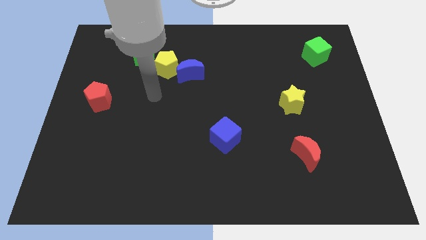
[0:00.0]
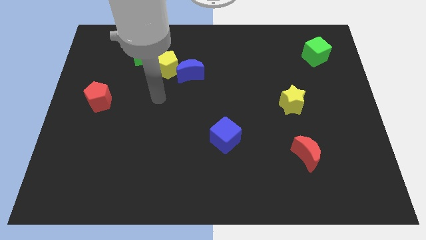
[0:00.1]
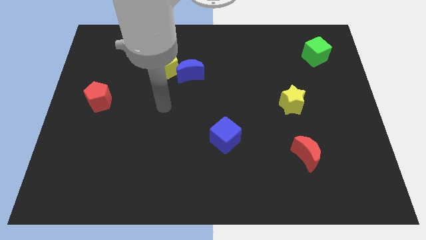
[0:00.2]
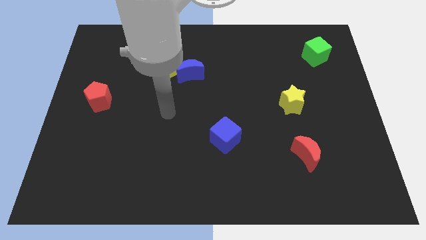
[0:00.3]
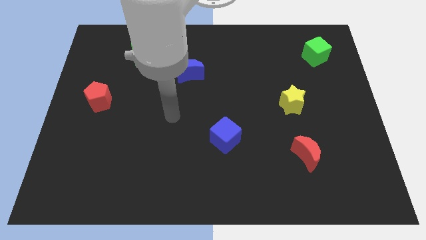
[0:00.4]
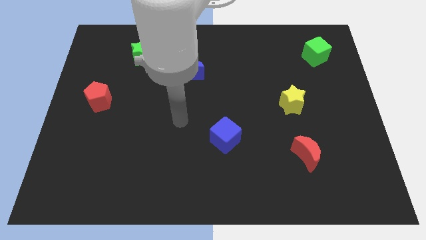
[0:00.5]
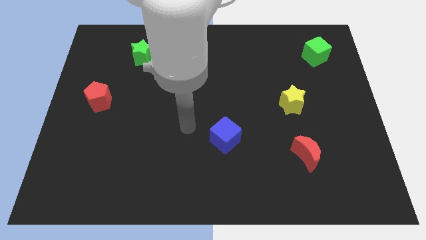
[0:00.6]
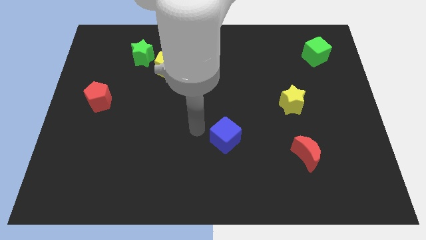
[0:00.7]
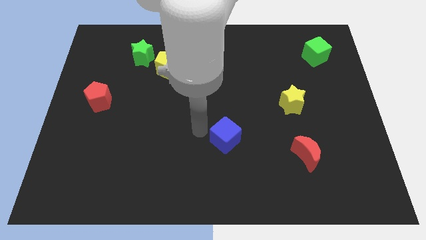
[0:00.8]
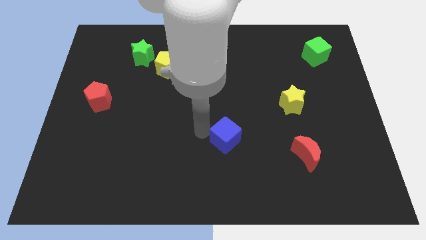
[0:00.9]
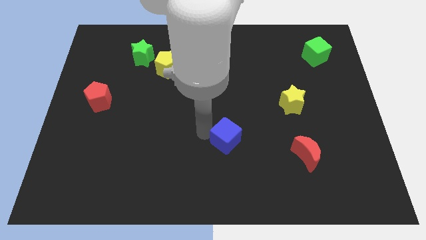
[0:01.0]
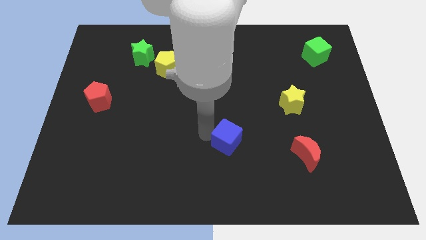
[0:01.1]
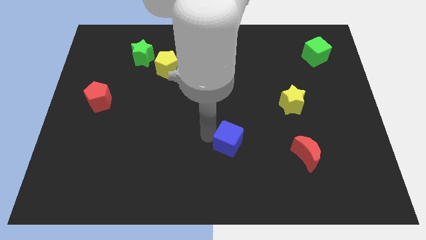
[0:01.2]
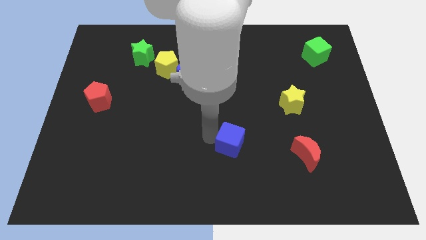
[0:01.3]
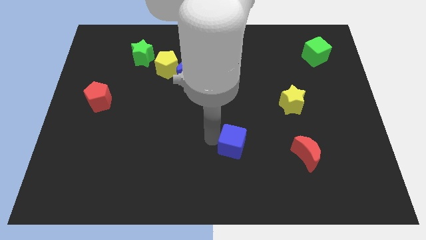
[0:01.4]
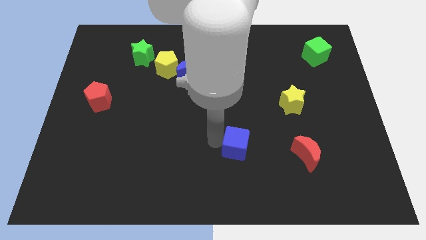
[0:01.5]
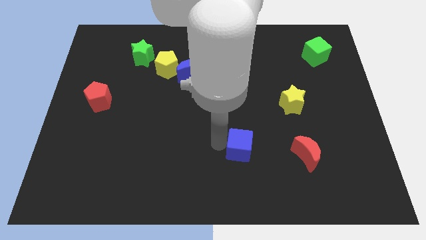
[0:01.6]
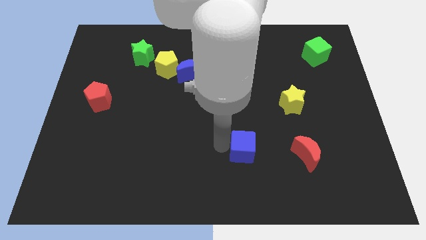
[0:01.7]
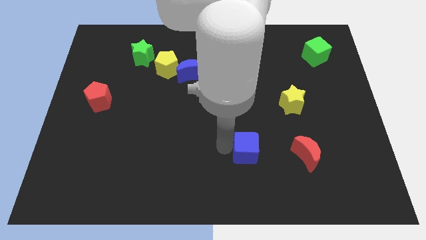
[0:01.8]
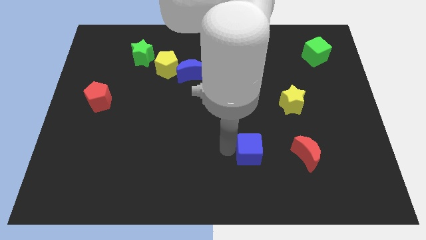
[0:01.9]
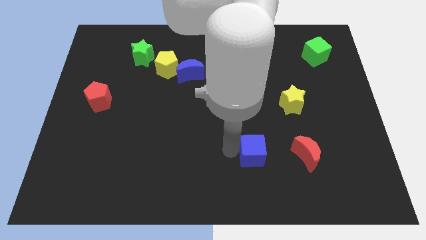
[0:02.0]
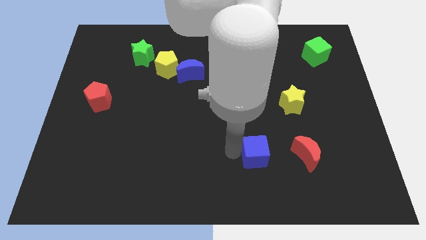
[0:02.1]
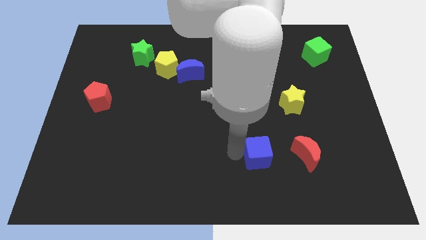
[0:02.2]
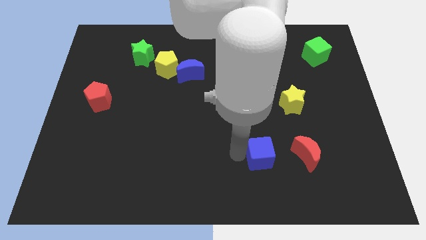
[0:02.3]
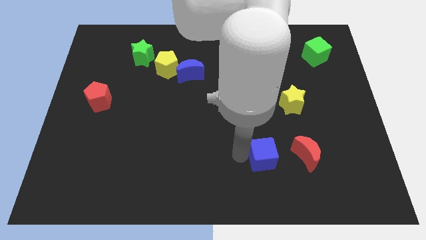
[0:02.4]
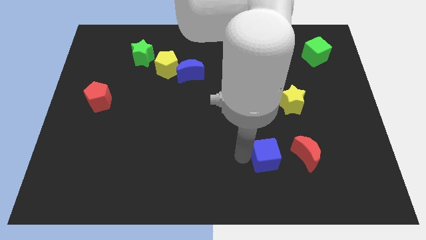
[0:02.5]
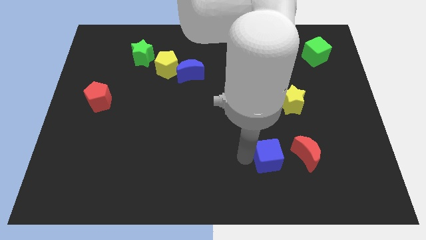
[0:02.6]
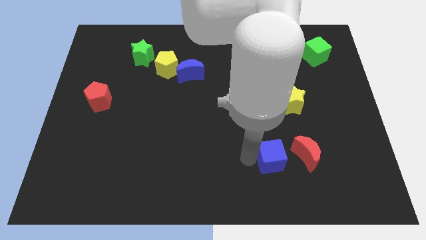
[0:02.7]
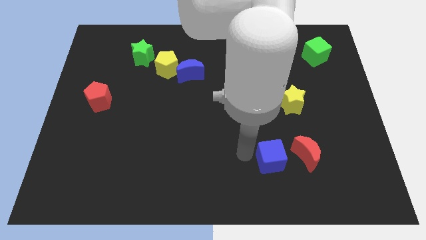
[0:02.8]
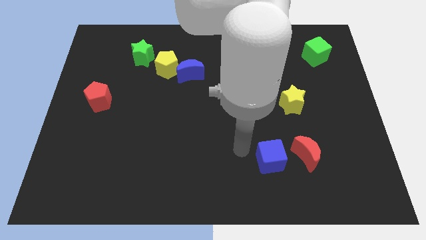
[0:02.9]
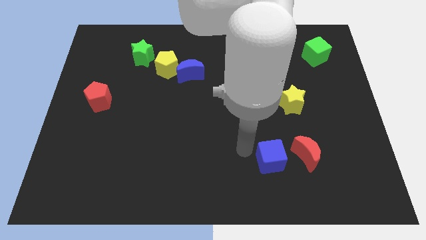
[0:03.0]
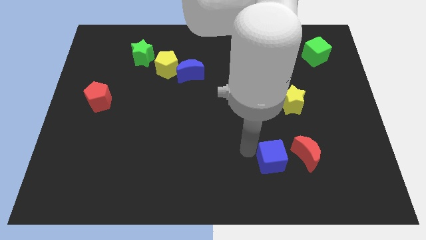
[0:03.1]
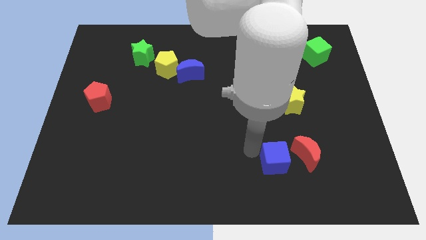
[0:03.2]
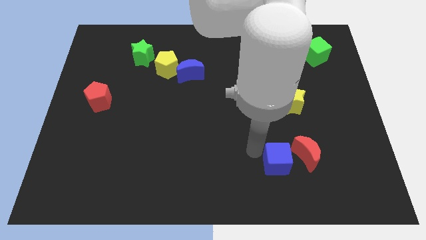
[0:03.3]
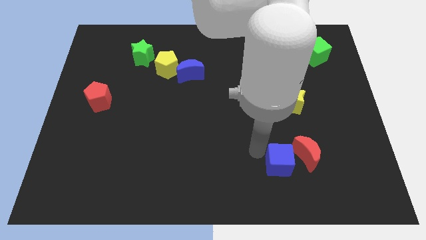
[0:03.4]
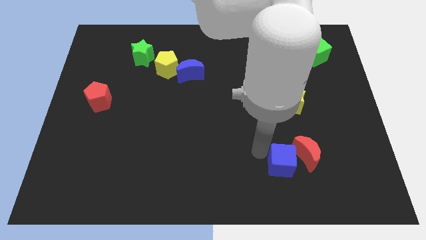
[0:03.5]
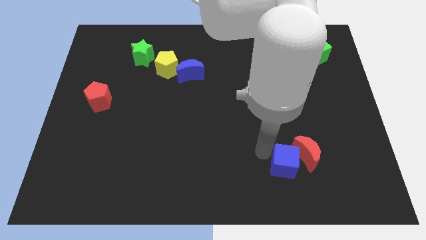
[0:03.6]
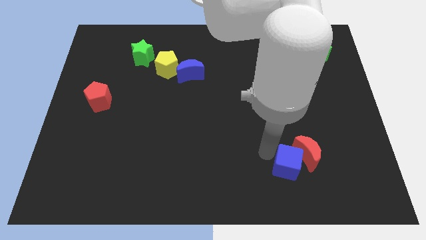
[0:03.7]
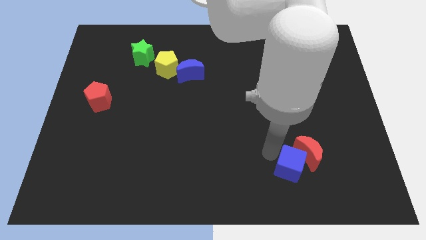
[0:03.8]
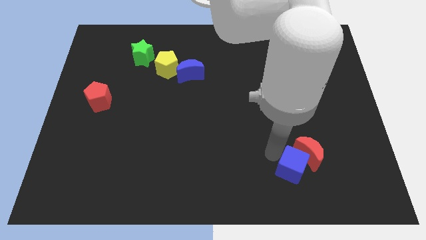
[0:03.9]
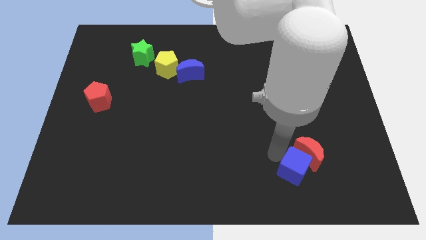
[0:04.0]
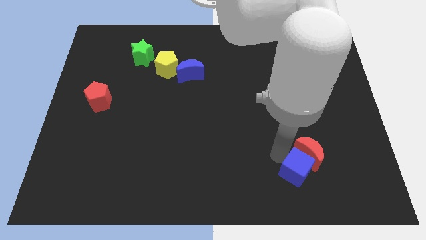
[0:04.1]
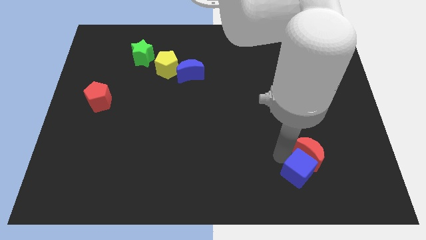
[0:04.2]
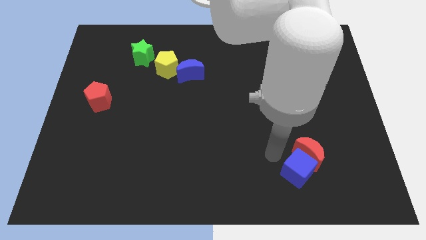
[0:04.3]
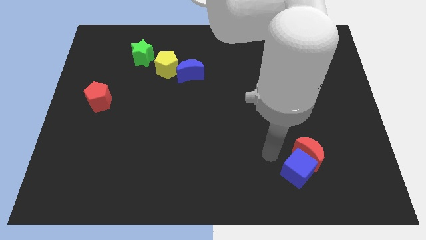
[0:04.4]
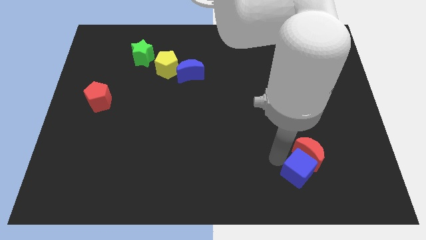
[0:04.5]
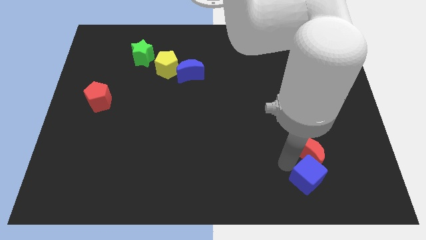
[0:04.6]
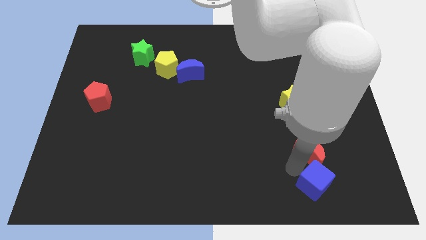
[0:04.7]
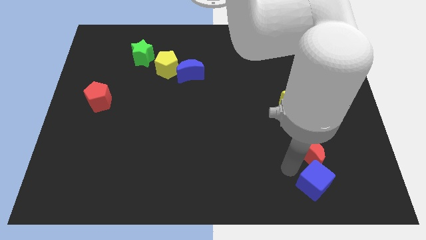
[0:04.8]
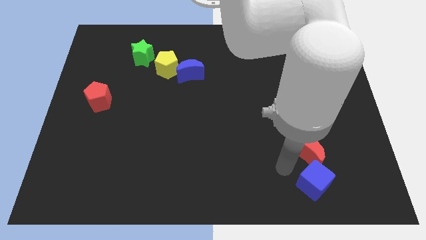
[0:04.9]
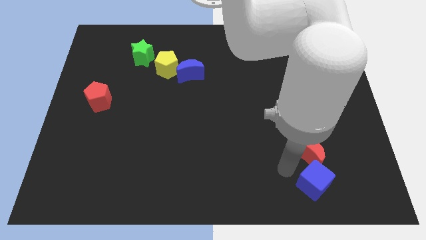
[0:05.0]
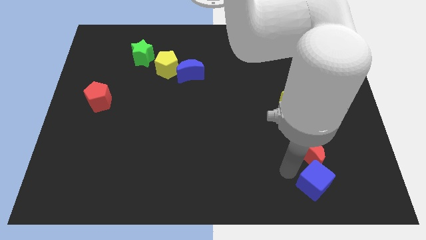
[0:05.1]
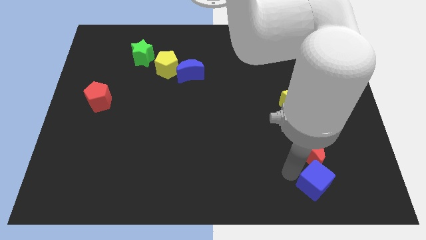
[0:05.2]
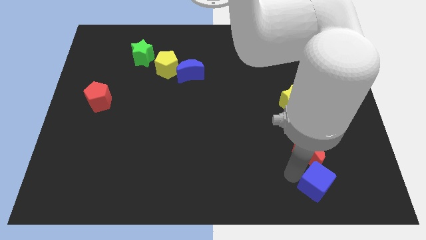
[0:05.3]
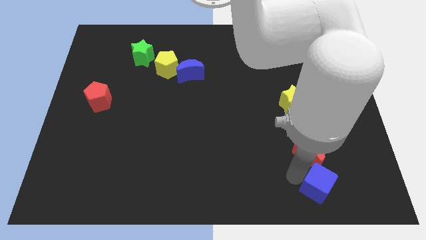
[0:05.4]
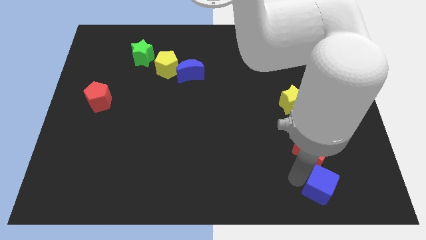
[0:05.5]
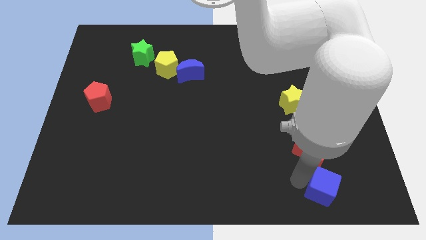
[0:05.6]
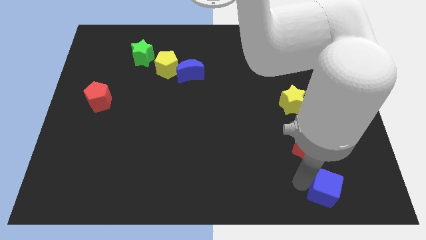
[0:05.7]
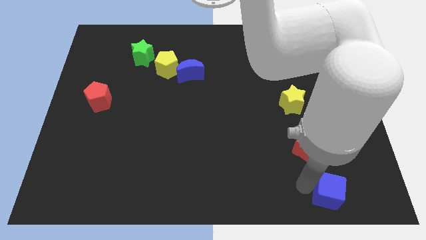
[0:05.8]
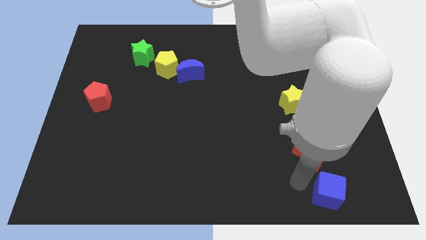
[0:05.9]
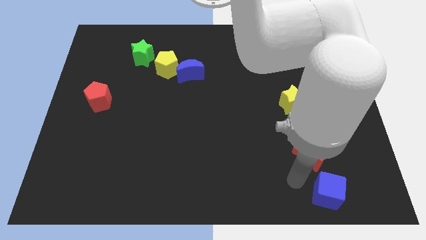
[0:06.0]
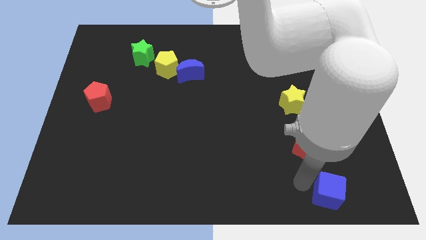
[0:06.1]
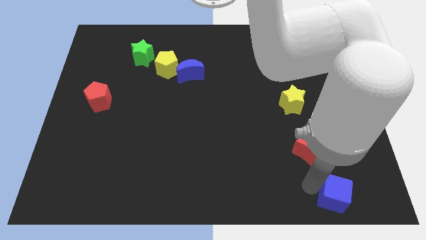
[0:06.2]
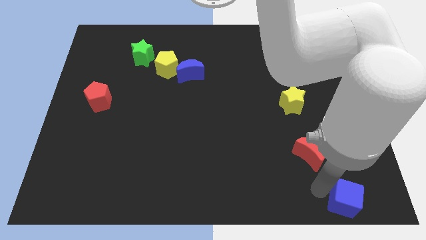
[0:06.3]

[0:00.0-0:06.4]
put the blue cube to the bottom right
